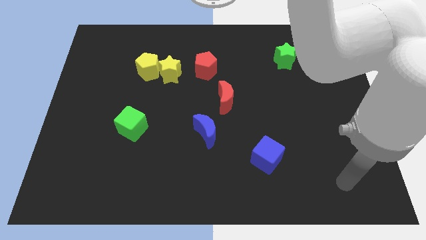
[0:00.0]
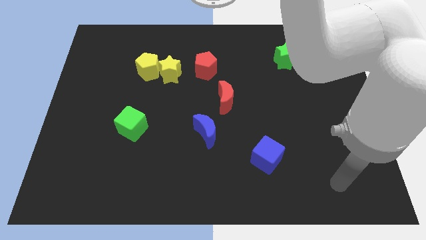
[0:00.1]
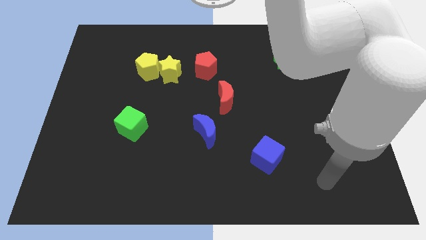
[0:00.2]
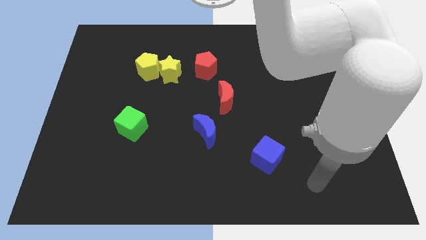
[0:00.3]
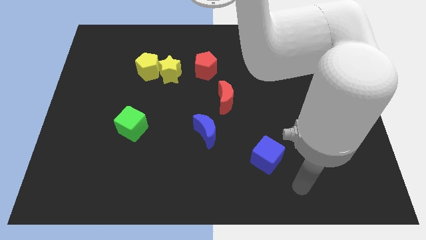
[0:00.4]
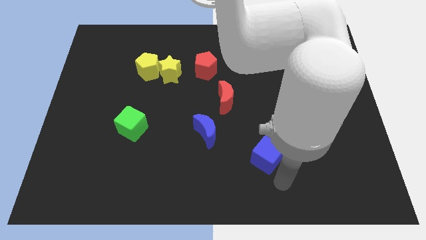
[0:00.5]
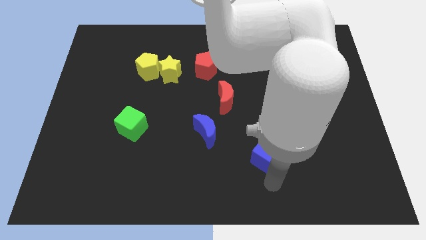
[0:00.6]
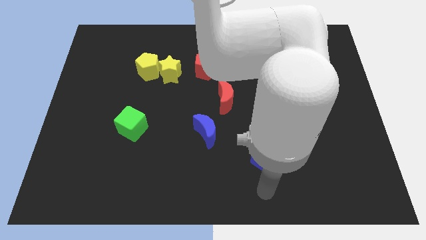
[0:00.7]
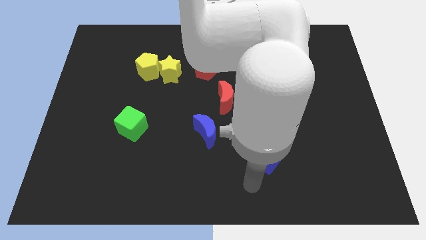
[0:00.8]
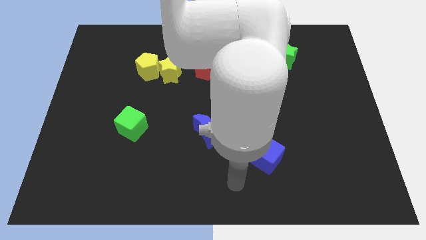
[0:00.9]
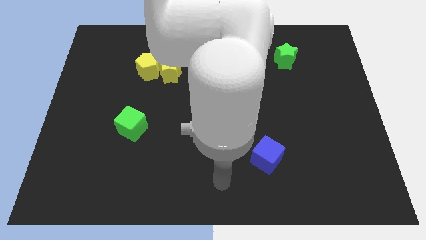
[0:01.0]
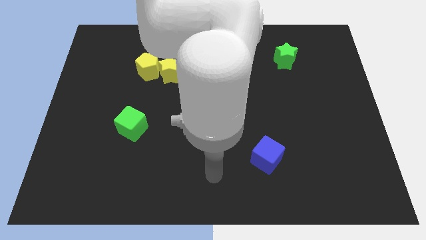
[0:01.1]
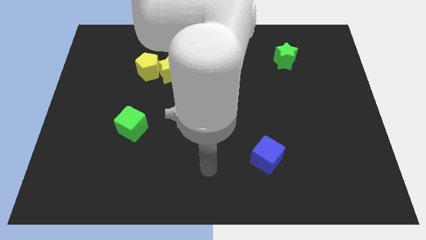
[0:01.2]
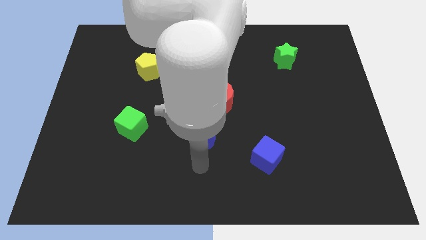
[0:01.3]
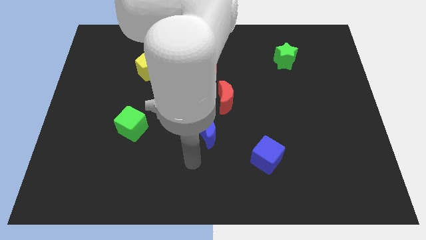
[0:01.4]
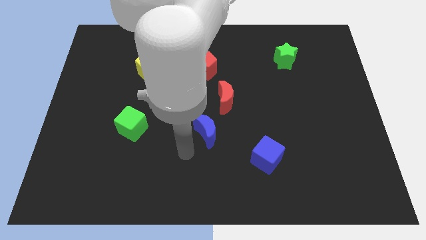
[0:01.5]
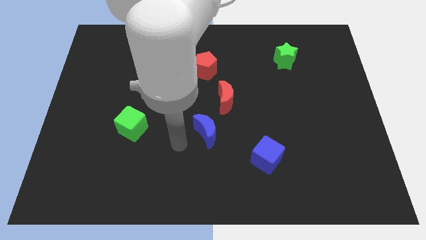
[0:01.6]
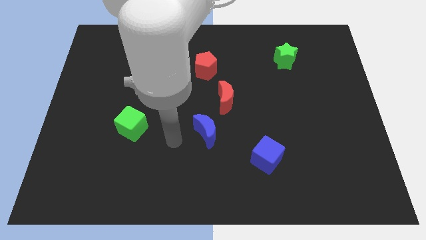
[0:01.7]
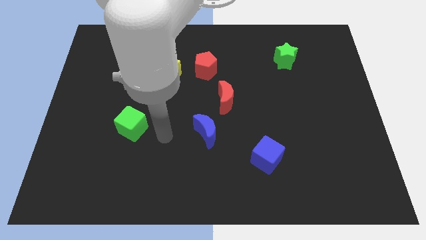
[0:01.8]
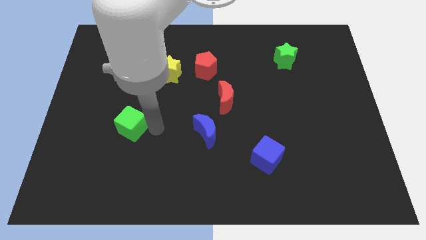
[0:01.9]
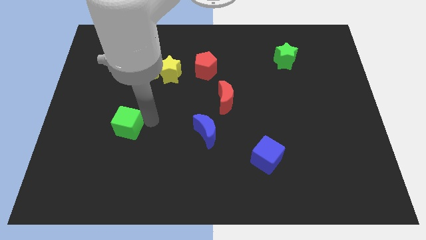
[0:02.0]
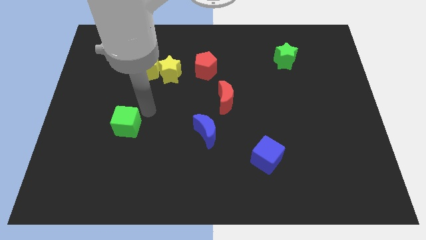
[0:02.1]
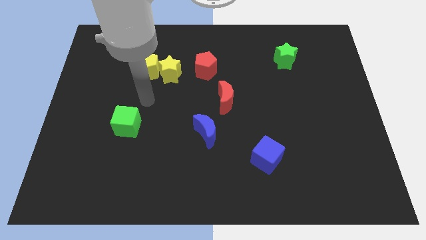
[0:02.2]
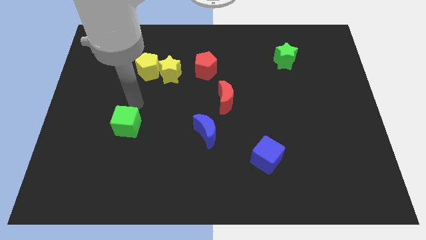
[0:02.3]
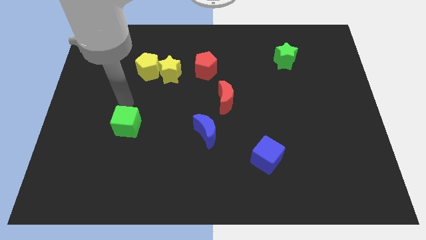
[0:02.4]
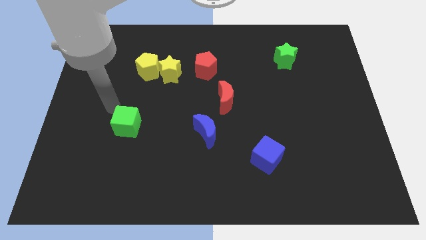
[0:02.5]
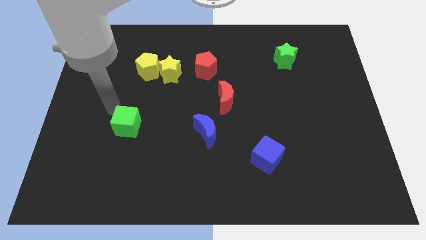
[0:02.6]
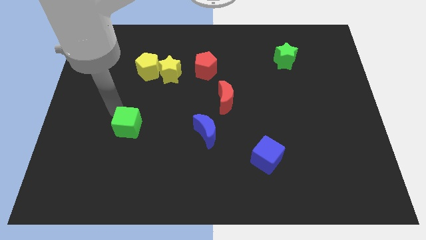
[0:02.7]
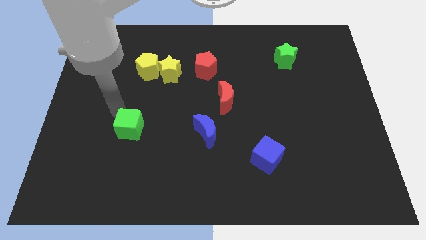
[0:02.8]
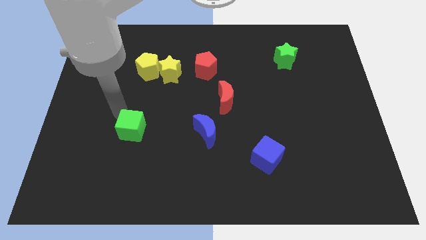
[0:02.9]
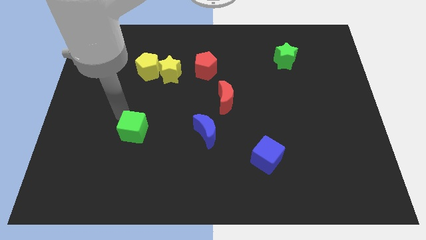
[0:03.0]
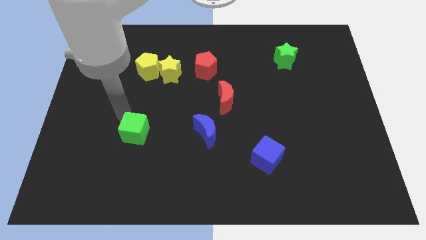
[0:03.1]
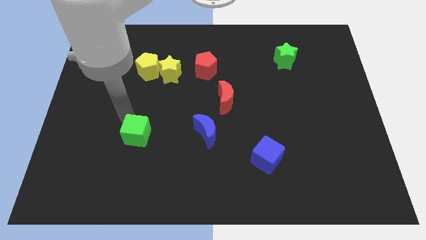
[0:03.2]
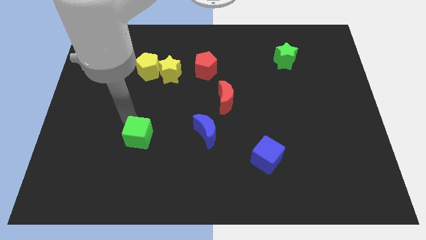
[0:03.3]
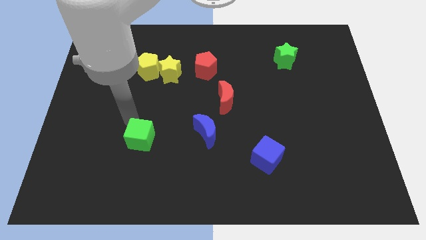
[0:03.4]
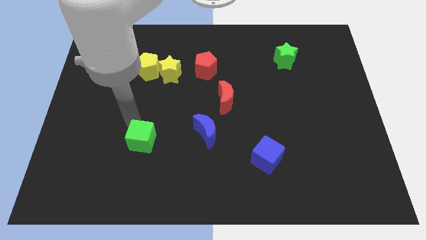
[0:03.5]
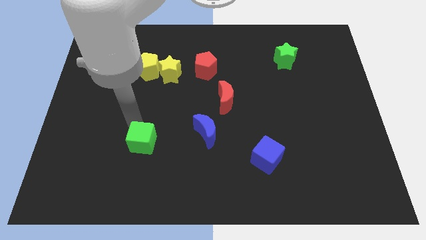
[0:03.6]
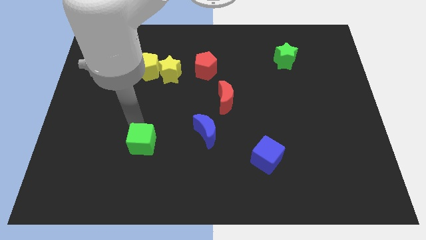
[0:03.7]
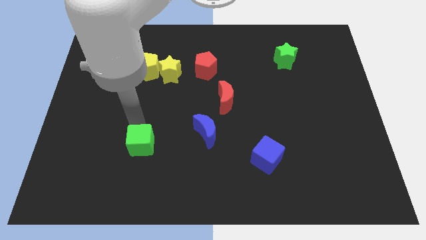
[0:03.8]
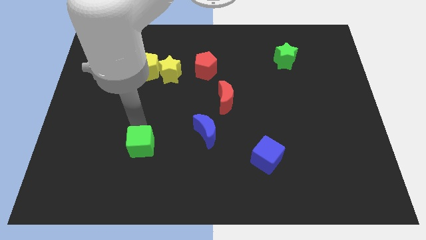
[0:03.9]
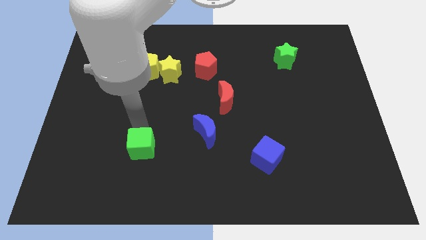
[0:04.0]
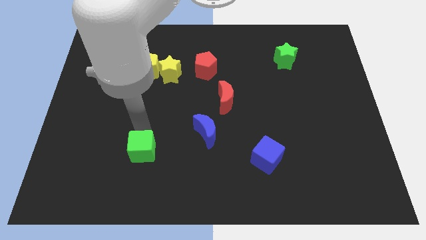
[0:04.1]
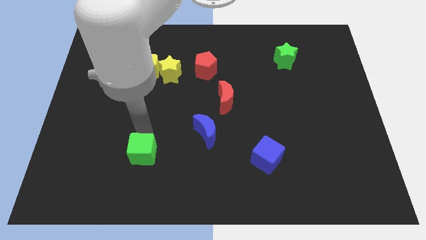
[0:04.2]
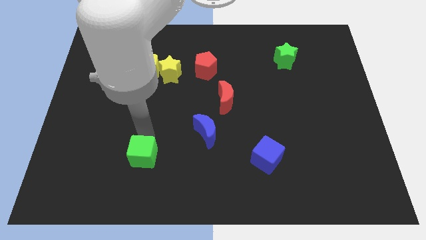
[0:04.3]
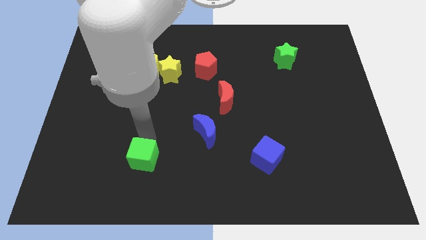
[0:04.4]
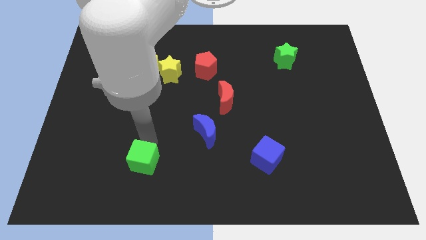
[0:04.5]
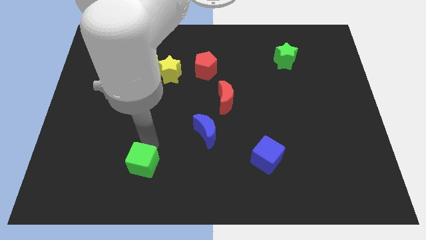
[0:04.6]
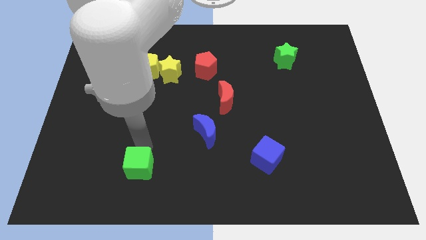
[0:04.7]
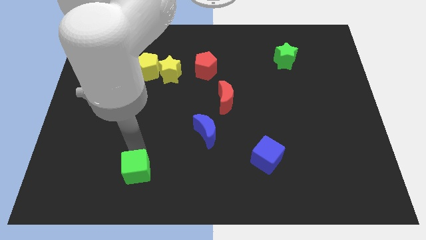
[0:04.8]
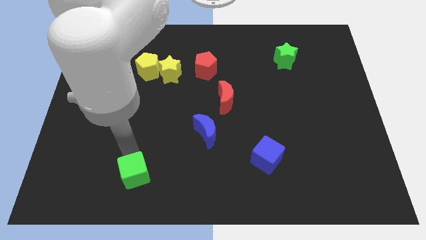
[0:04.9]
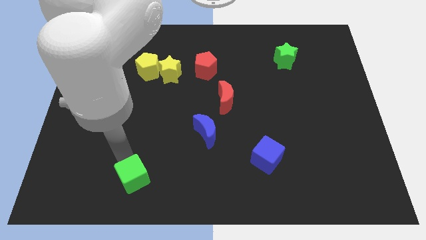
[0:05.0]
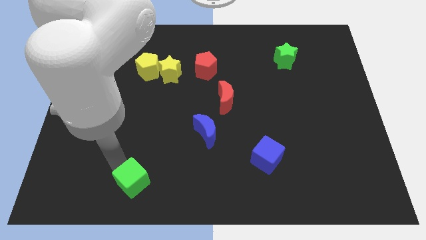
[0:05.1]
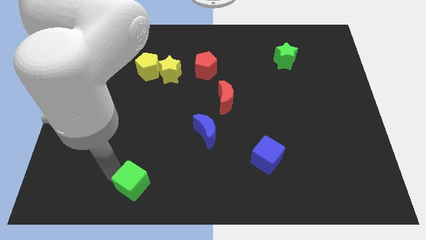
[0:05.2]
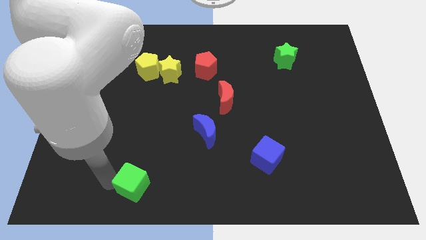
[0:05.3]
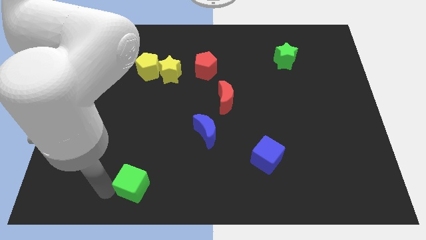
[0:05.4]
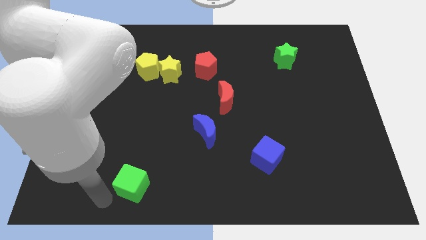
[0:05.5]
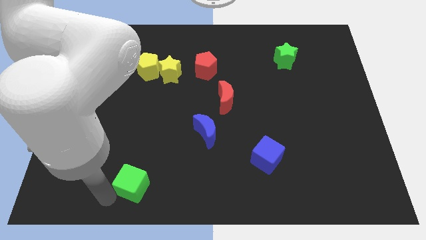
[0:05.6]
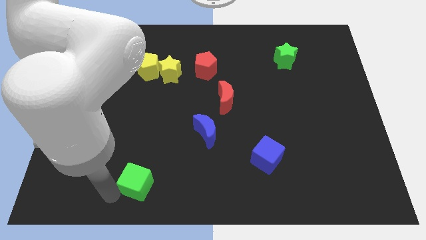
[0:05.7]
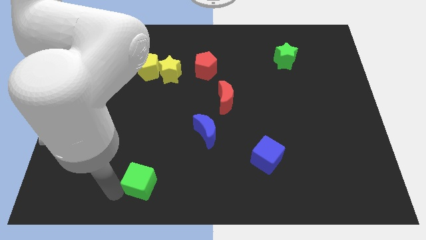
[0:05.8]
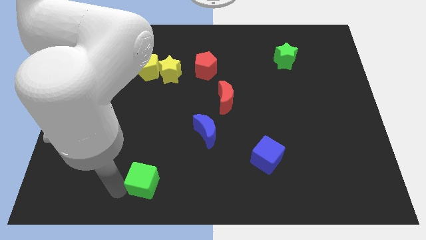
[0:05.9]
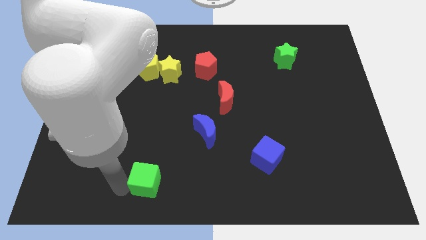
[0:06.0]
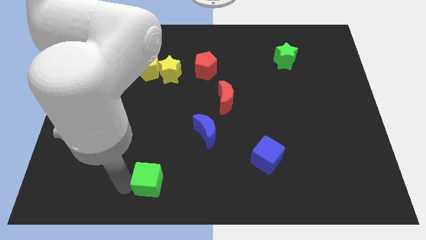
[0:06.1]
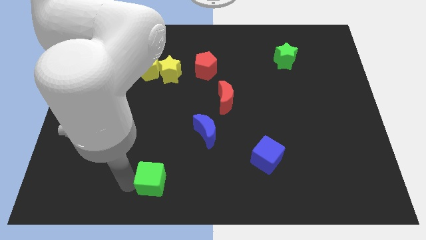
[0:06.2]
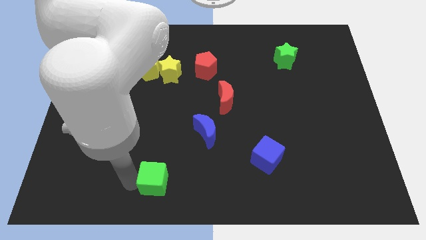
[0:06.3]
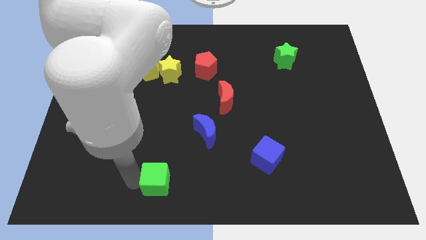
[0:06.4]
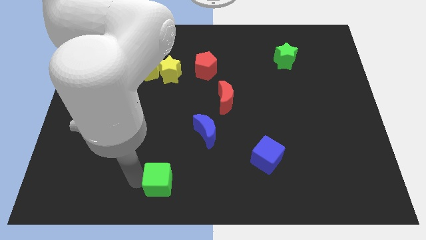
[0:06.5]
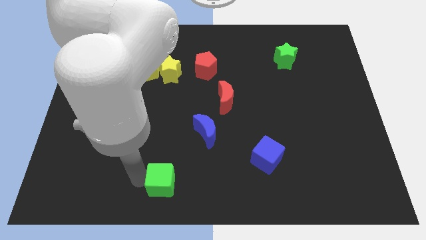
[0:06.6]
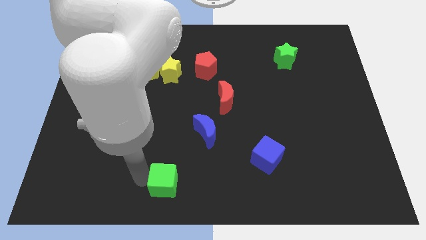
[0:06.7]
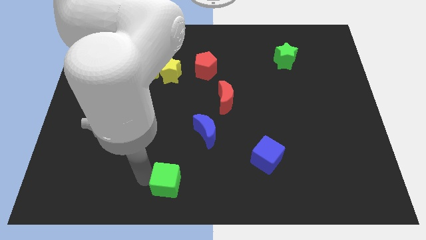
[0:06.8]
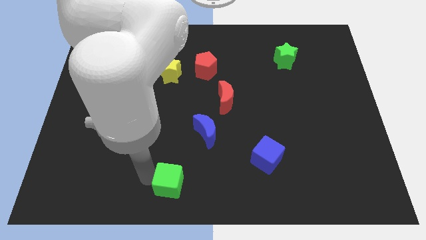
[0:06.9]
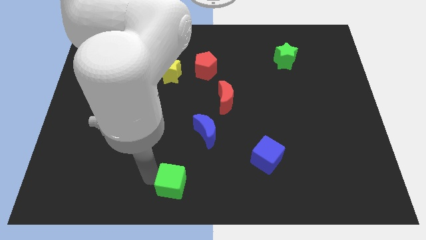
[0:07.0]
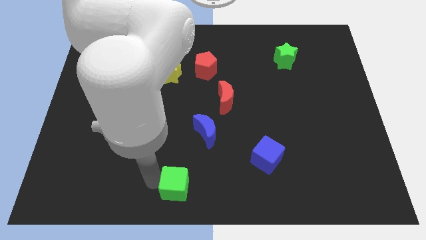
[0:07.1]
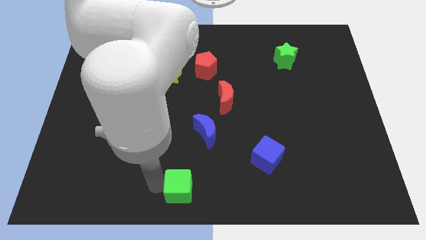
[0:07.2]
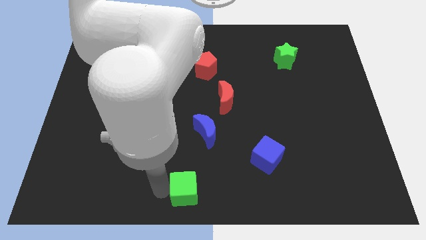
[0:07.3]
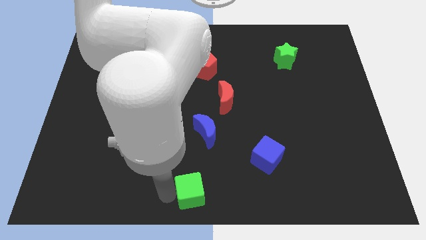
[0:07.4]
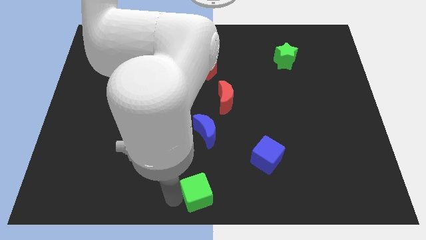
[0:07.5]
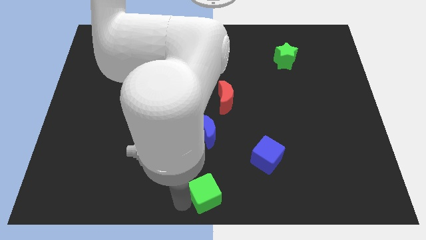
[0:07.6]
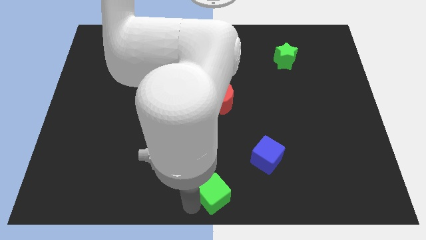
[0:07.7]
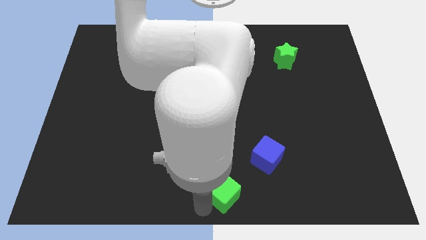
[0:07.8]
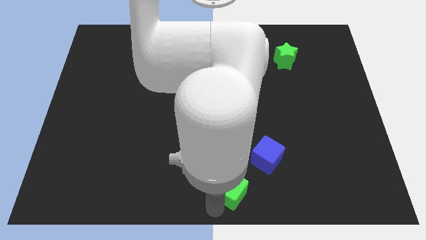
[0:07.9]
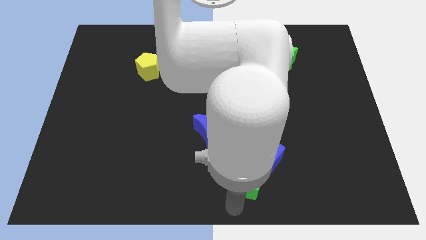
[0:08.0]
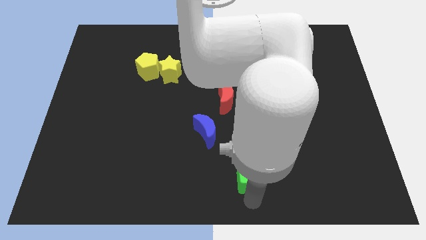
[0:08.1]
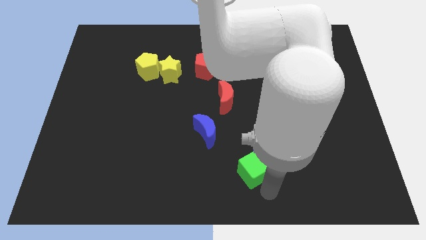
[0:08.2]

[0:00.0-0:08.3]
push the green cube right
